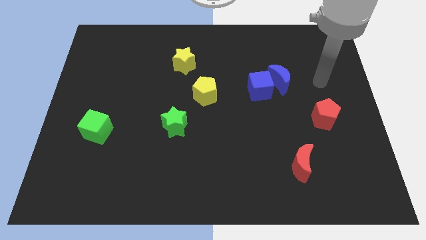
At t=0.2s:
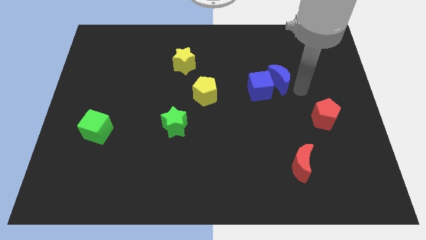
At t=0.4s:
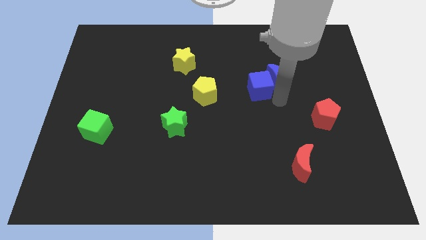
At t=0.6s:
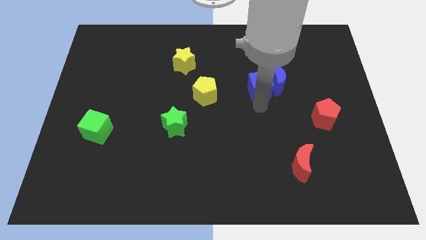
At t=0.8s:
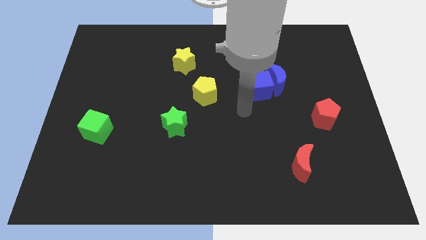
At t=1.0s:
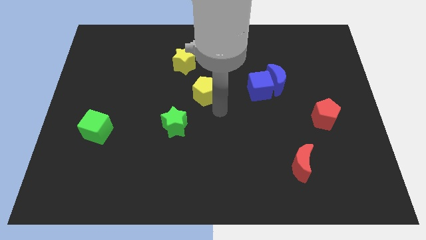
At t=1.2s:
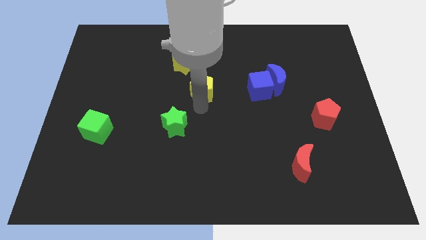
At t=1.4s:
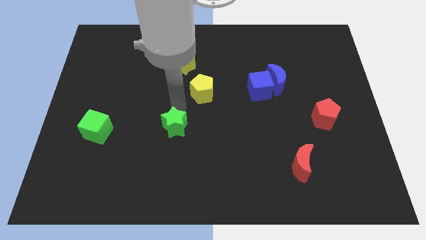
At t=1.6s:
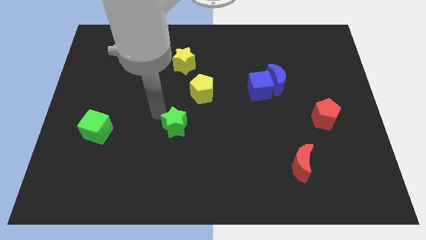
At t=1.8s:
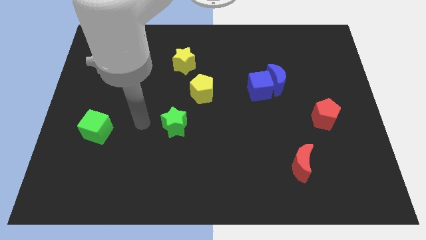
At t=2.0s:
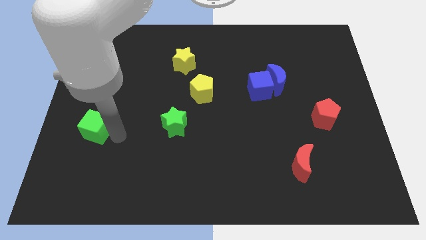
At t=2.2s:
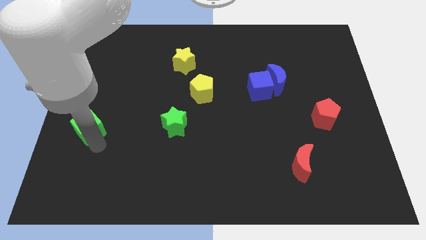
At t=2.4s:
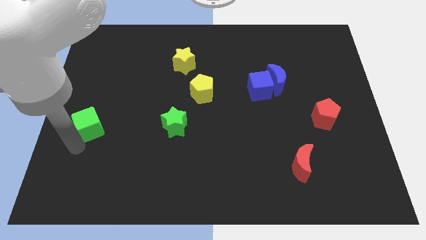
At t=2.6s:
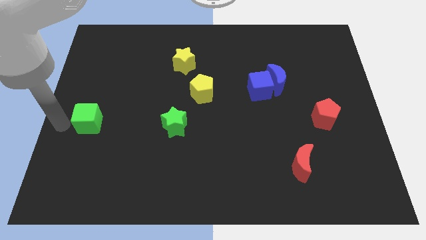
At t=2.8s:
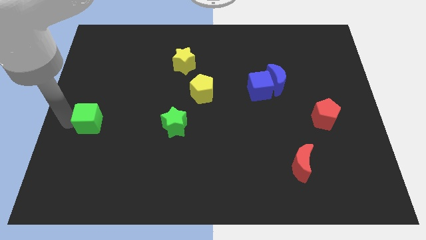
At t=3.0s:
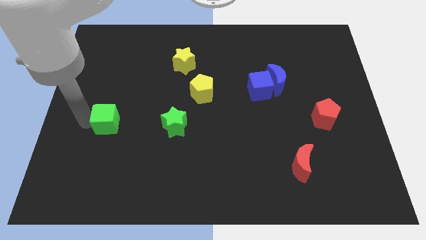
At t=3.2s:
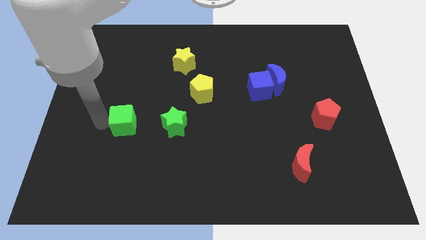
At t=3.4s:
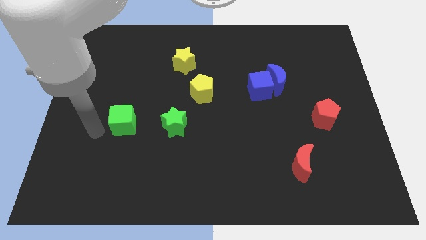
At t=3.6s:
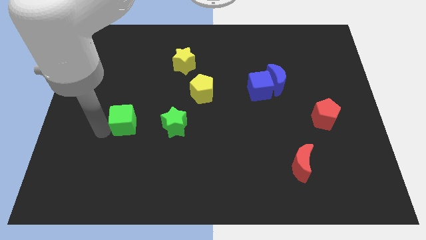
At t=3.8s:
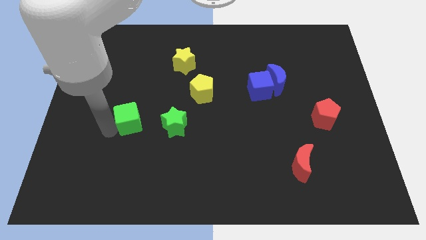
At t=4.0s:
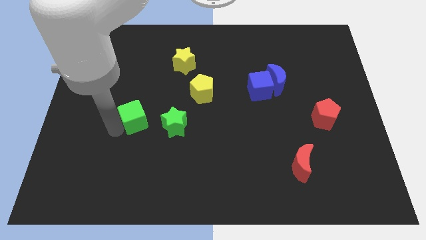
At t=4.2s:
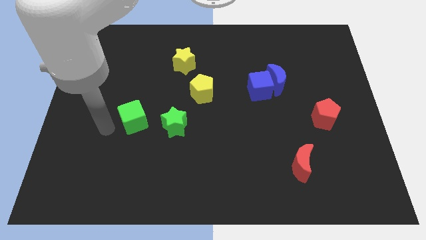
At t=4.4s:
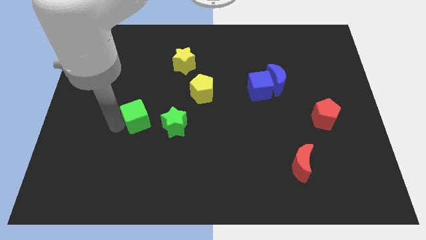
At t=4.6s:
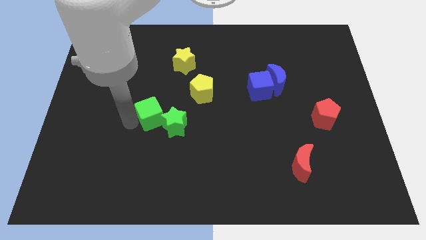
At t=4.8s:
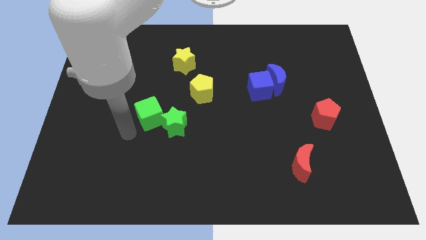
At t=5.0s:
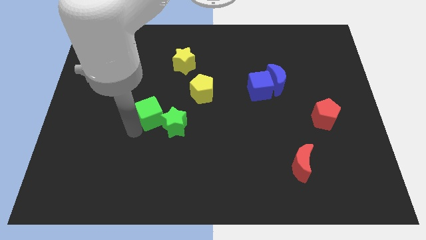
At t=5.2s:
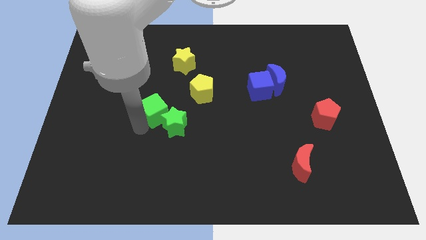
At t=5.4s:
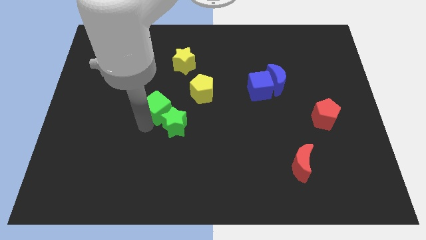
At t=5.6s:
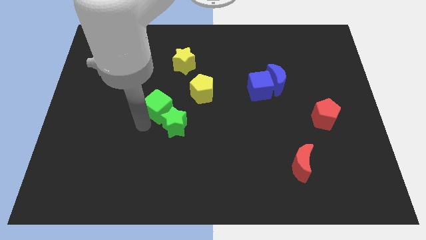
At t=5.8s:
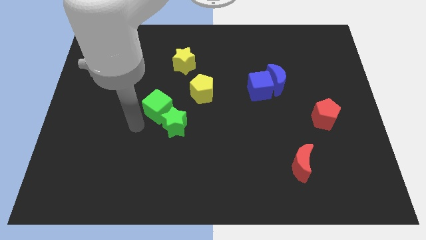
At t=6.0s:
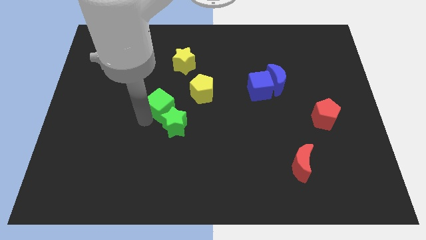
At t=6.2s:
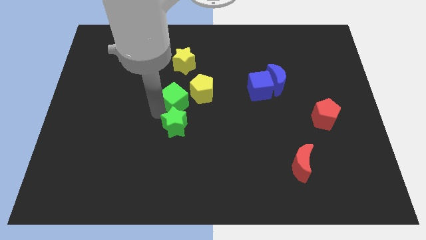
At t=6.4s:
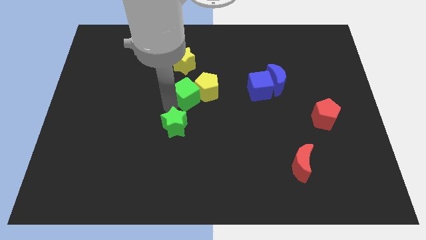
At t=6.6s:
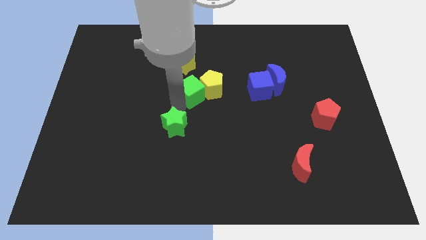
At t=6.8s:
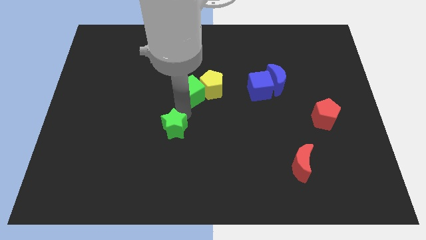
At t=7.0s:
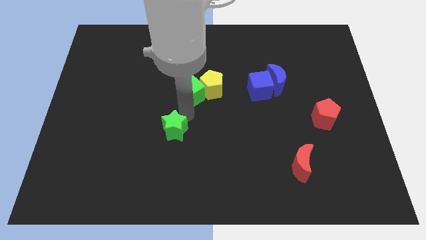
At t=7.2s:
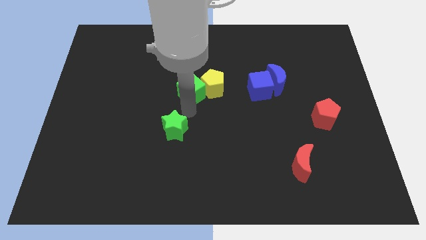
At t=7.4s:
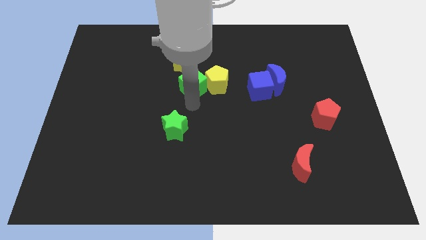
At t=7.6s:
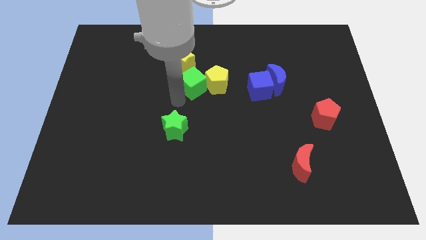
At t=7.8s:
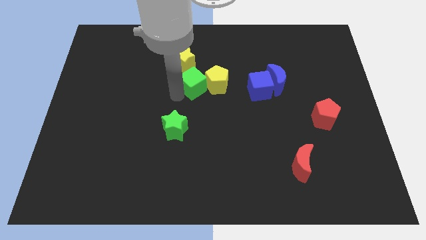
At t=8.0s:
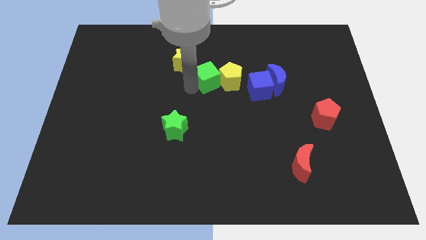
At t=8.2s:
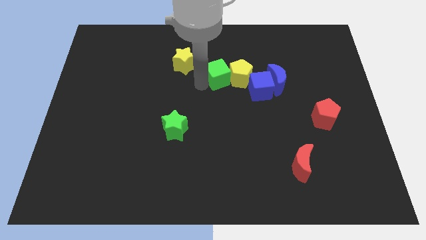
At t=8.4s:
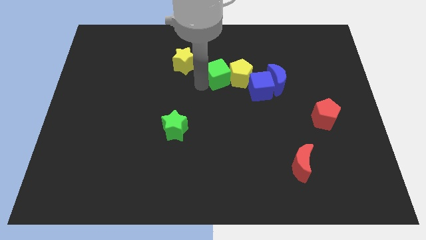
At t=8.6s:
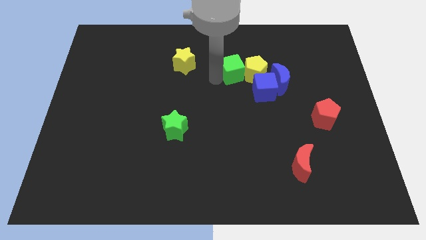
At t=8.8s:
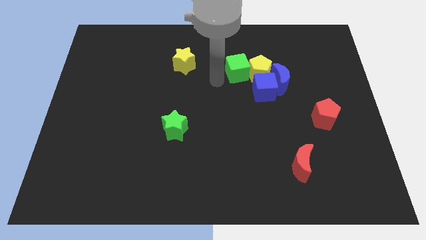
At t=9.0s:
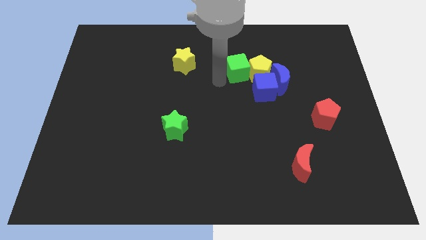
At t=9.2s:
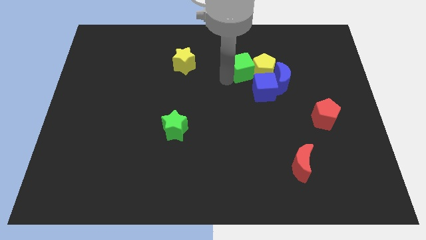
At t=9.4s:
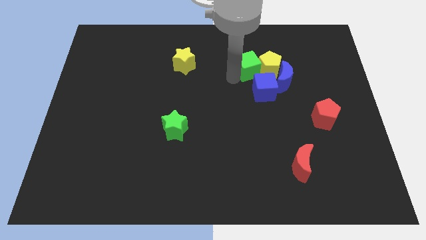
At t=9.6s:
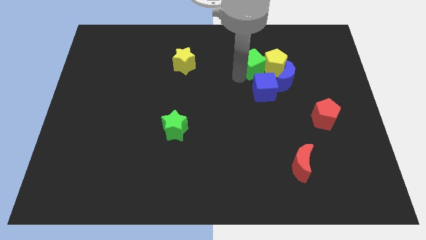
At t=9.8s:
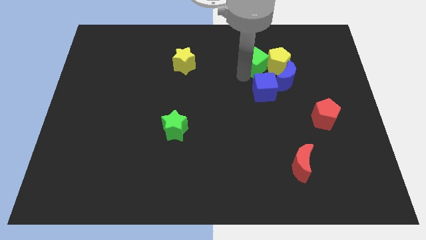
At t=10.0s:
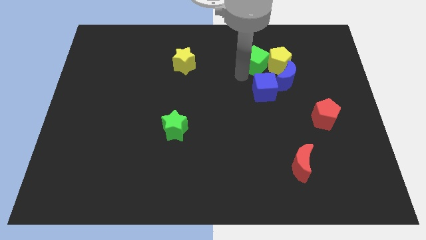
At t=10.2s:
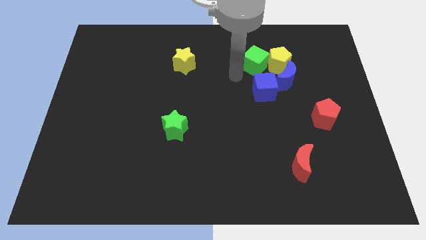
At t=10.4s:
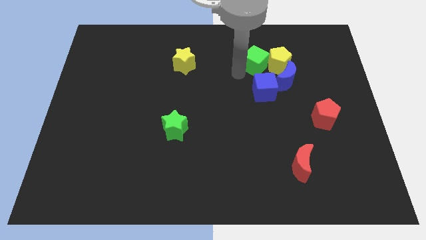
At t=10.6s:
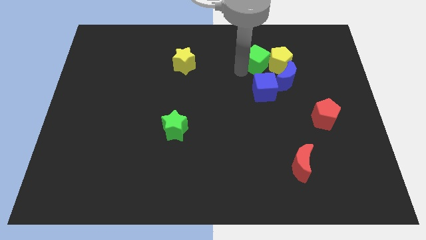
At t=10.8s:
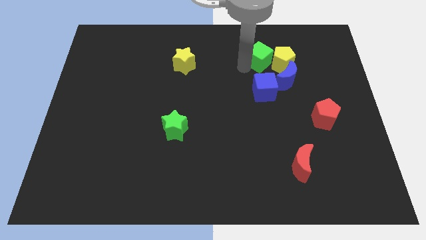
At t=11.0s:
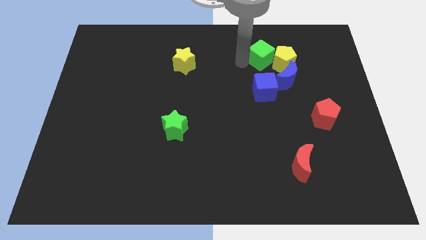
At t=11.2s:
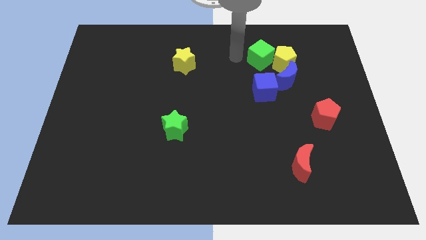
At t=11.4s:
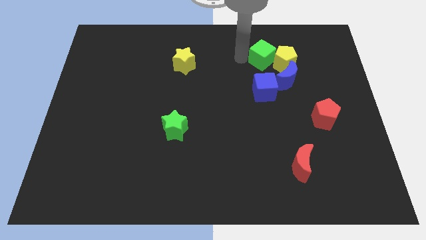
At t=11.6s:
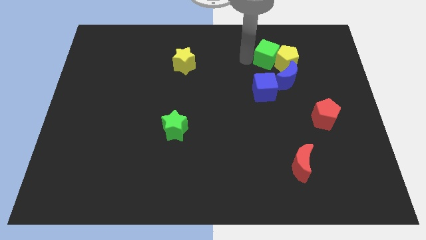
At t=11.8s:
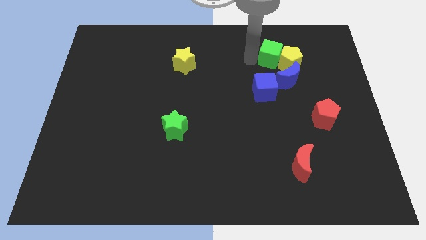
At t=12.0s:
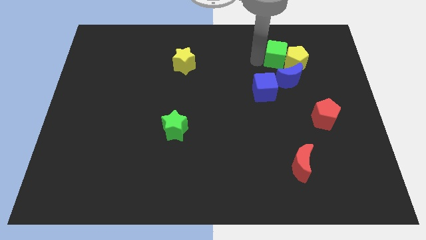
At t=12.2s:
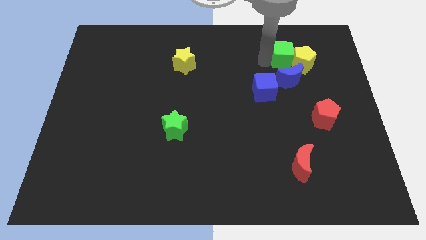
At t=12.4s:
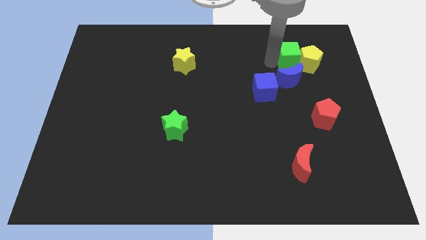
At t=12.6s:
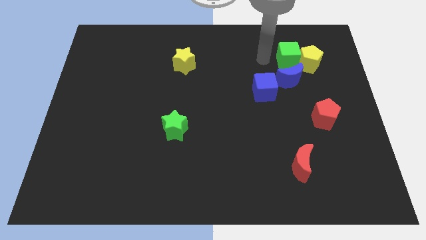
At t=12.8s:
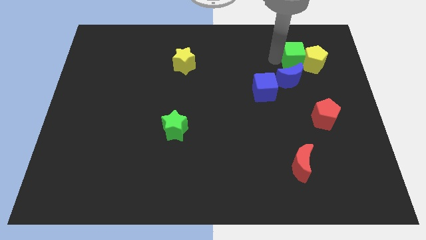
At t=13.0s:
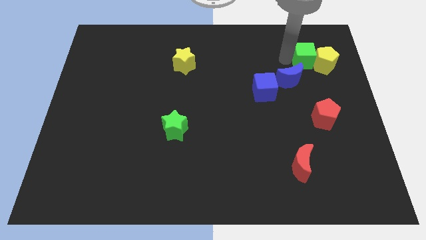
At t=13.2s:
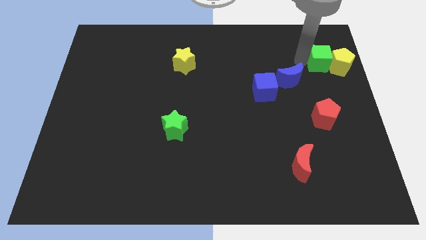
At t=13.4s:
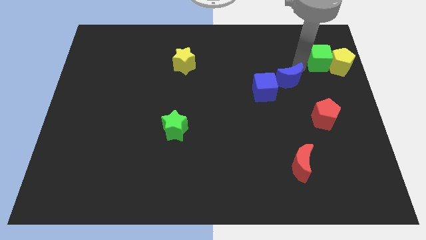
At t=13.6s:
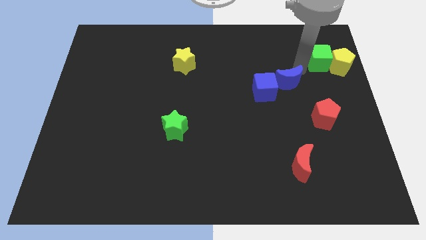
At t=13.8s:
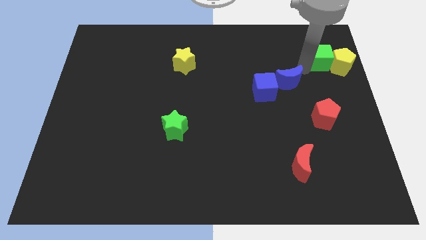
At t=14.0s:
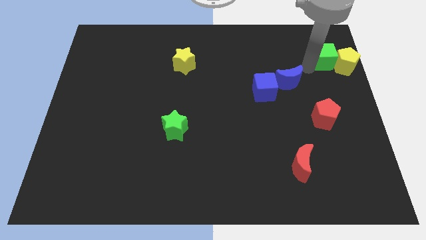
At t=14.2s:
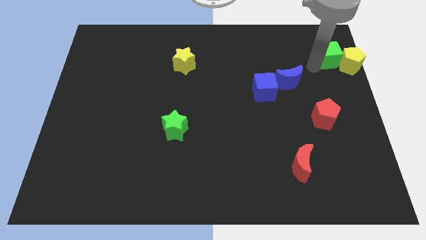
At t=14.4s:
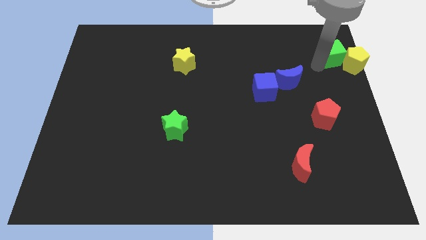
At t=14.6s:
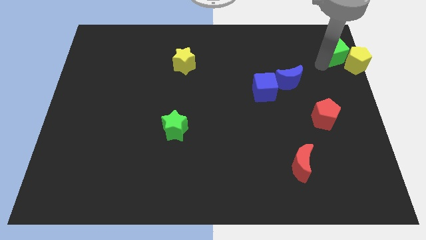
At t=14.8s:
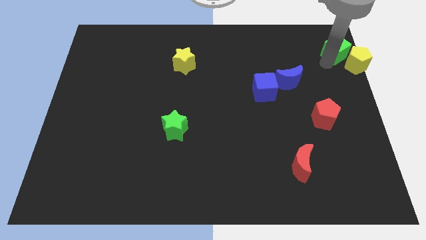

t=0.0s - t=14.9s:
slide the green cube to the top right corner
